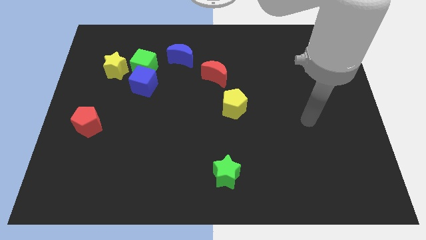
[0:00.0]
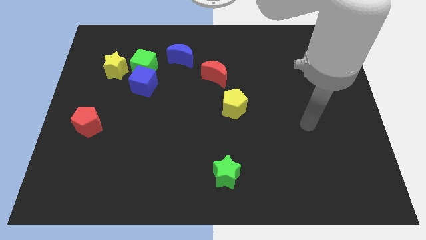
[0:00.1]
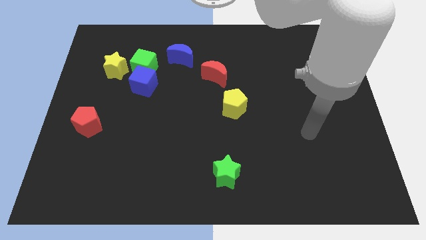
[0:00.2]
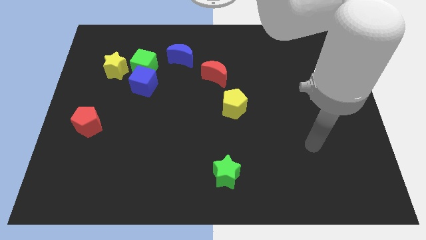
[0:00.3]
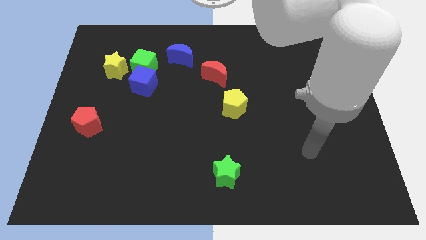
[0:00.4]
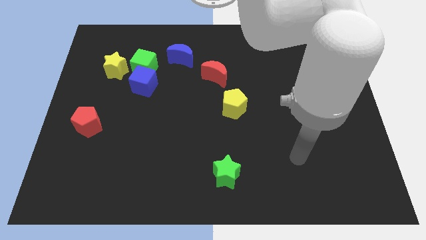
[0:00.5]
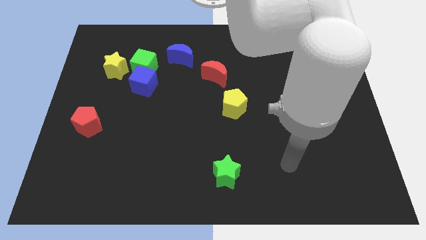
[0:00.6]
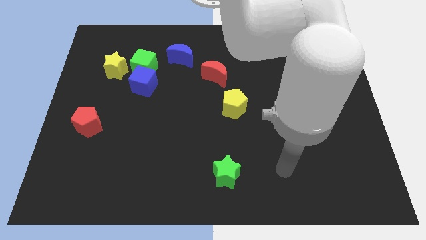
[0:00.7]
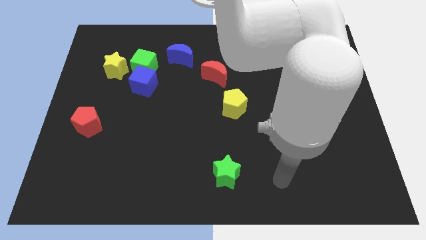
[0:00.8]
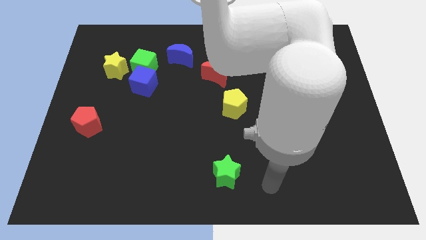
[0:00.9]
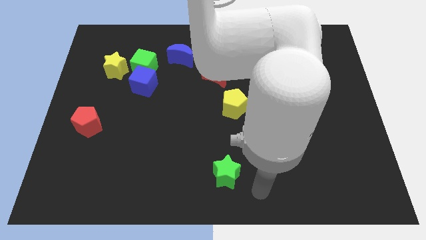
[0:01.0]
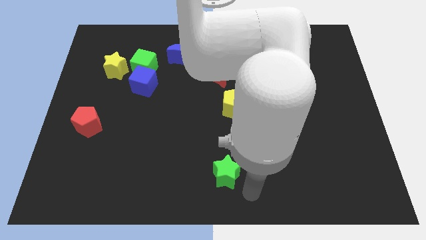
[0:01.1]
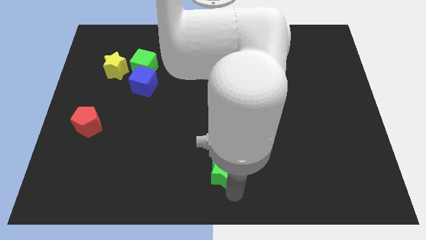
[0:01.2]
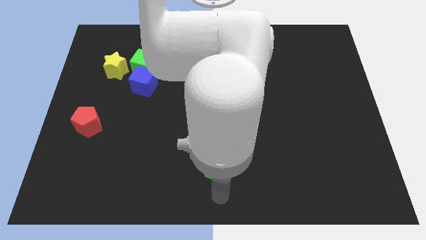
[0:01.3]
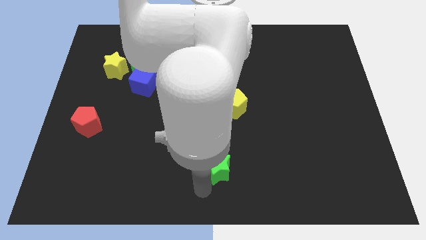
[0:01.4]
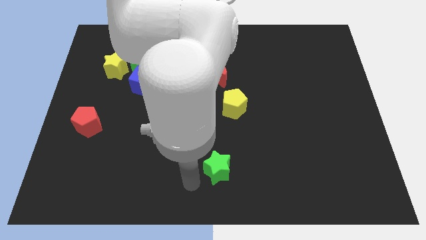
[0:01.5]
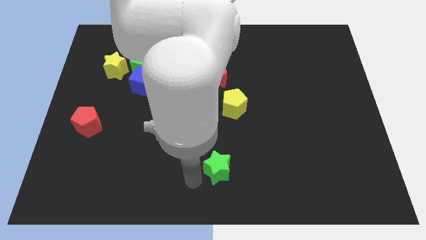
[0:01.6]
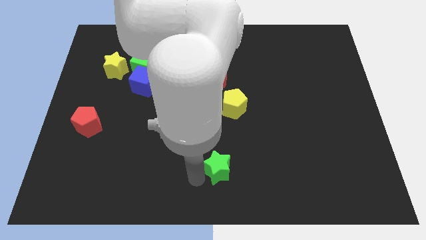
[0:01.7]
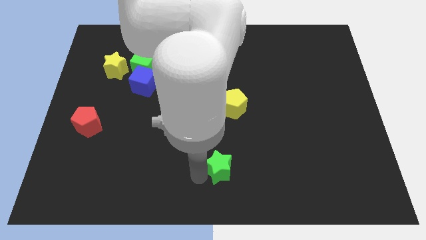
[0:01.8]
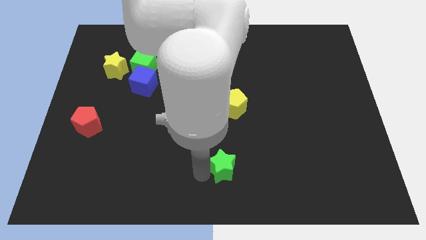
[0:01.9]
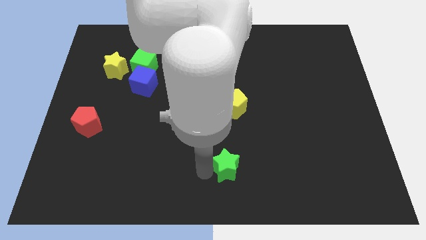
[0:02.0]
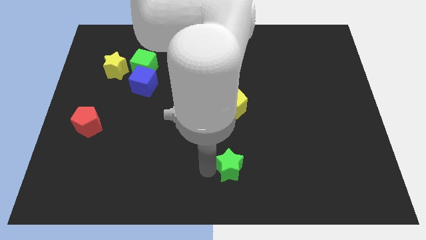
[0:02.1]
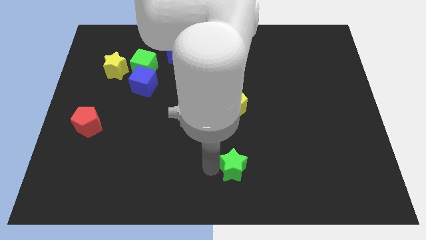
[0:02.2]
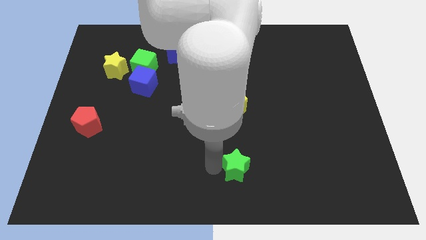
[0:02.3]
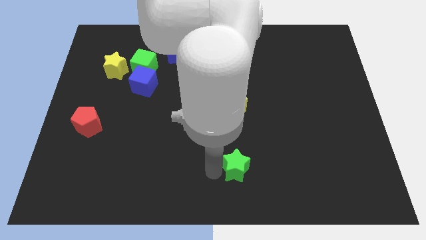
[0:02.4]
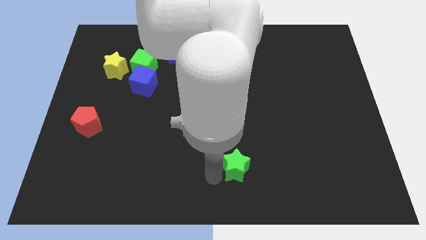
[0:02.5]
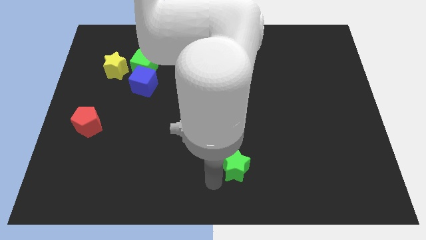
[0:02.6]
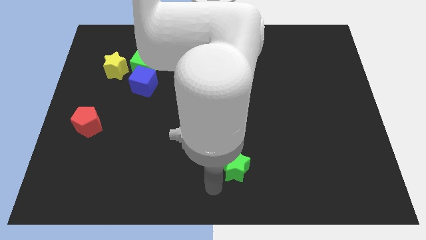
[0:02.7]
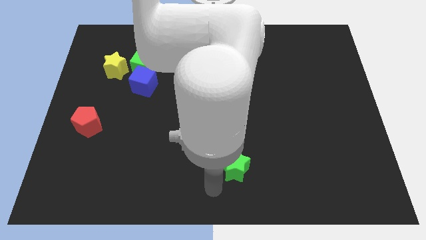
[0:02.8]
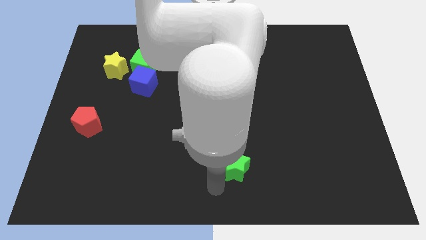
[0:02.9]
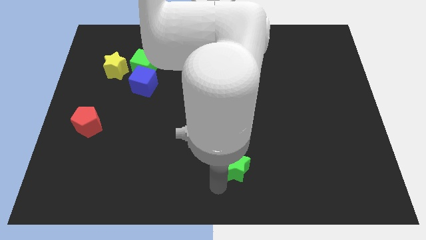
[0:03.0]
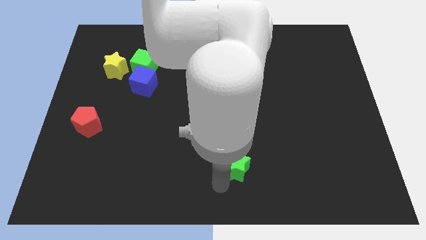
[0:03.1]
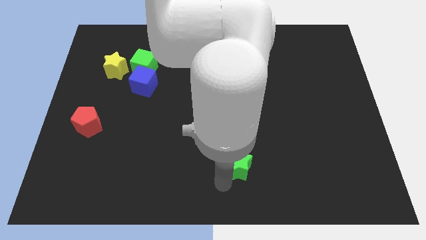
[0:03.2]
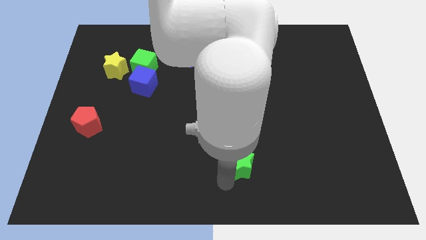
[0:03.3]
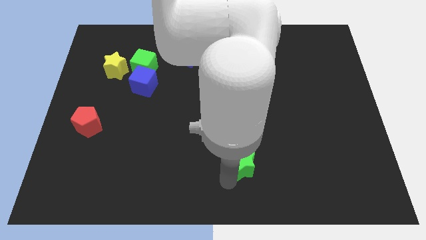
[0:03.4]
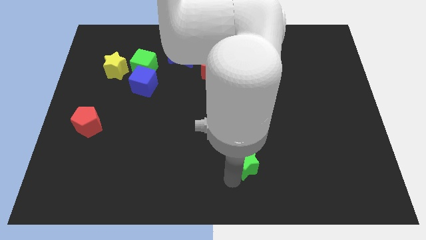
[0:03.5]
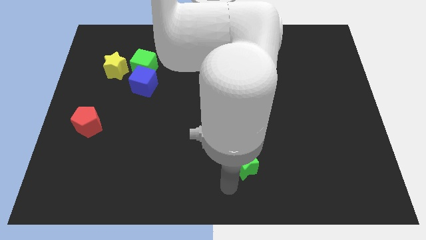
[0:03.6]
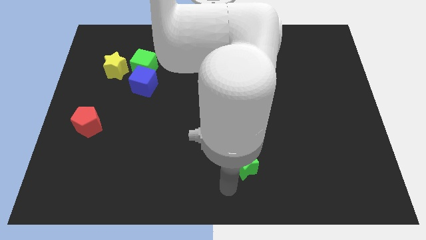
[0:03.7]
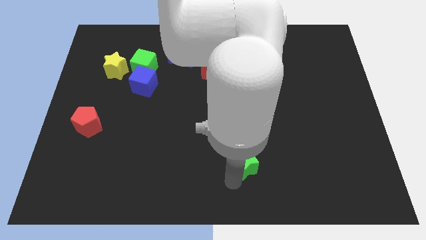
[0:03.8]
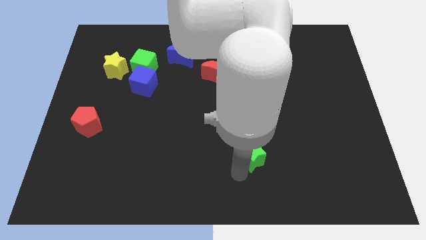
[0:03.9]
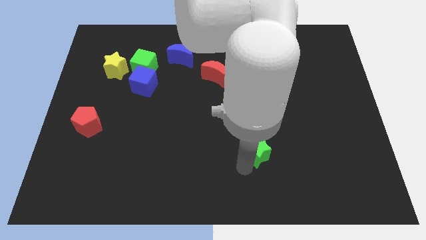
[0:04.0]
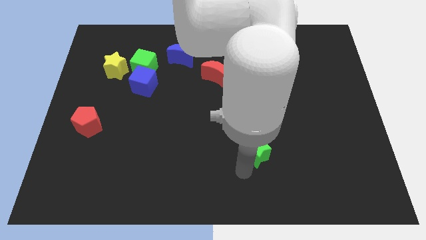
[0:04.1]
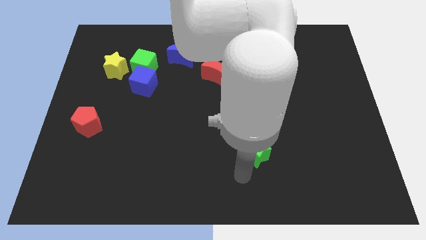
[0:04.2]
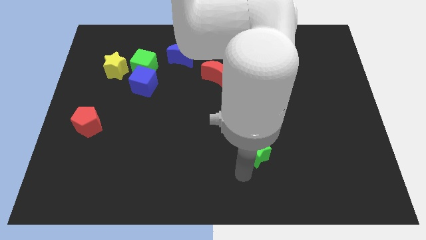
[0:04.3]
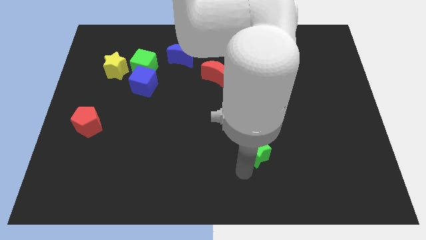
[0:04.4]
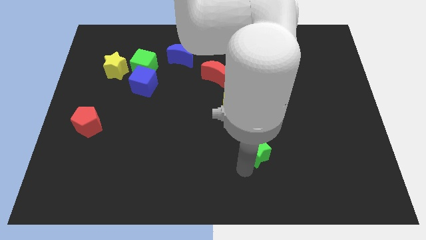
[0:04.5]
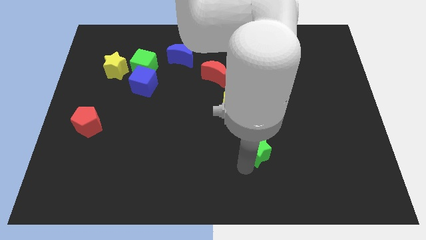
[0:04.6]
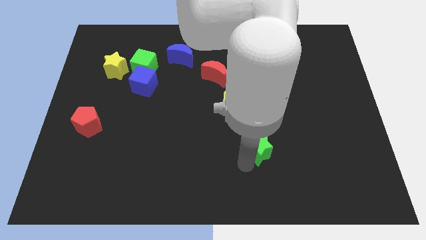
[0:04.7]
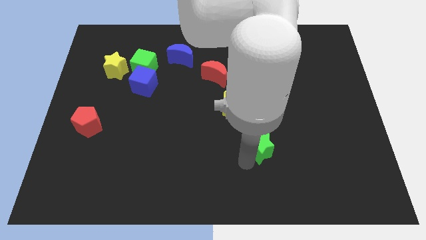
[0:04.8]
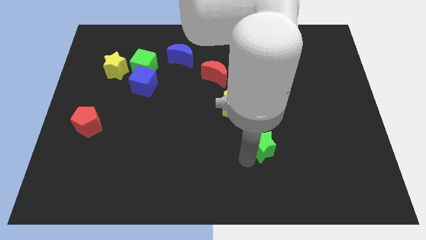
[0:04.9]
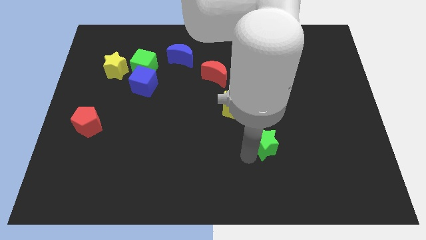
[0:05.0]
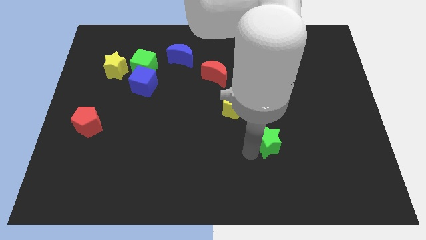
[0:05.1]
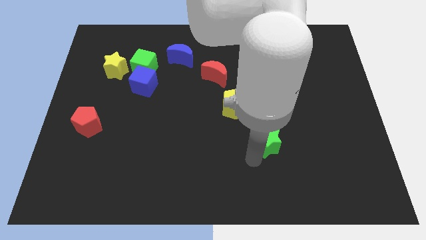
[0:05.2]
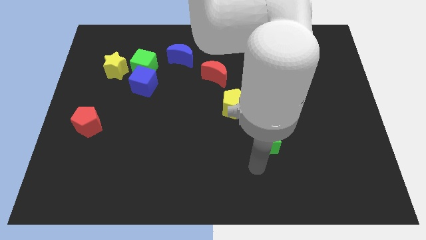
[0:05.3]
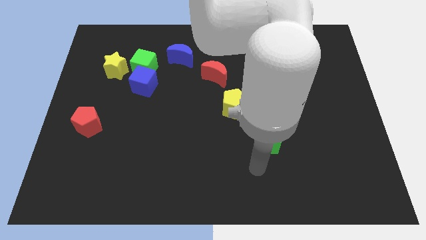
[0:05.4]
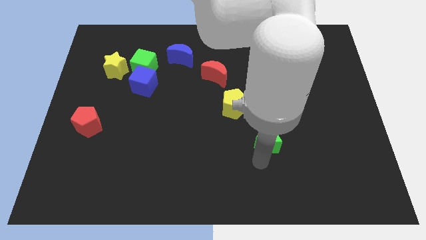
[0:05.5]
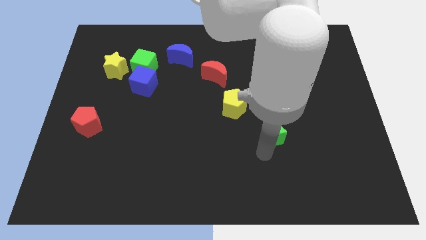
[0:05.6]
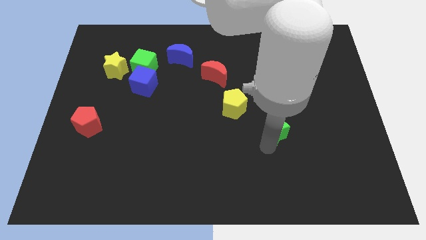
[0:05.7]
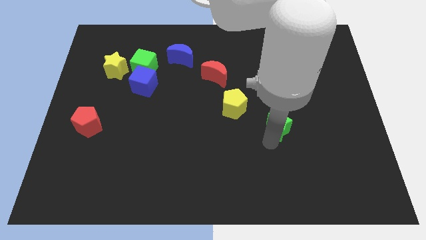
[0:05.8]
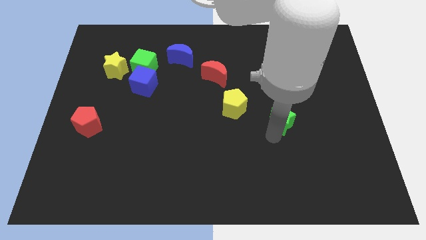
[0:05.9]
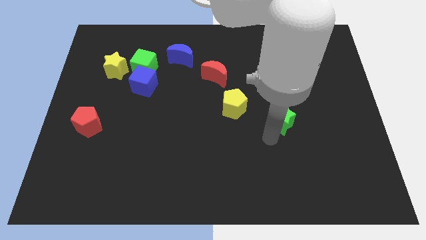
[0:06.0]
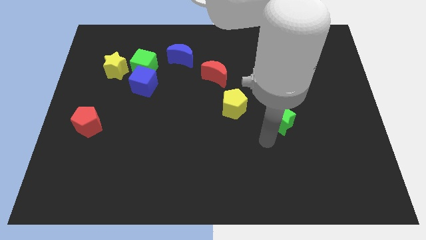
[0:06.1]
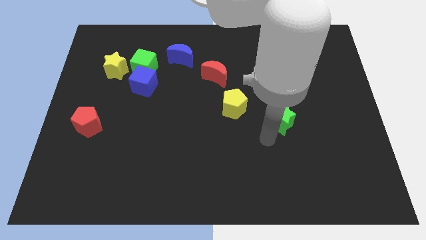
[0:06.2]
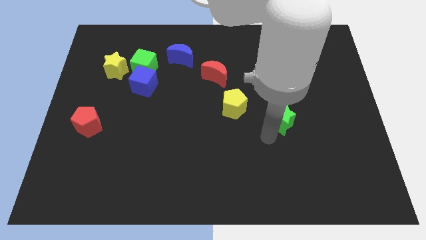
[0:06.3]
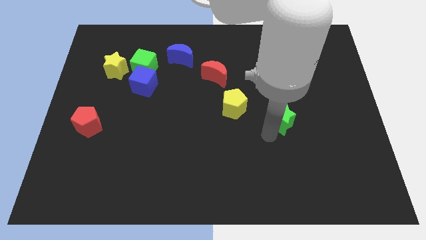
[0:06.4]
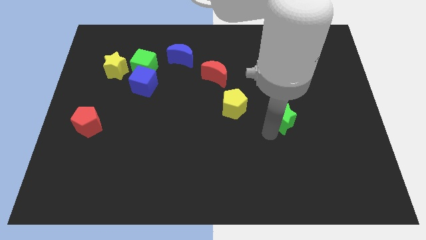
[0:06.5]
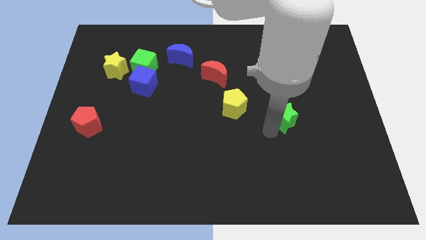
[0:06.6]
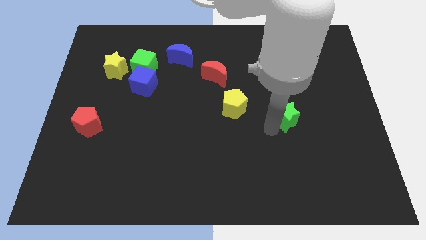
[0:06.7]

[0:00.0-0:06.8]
move the green star upwards and then to the right

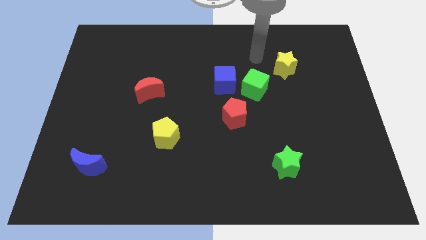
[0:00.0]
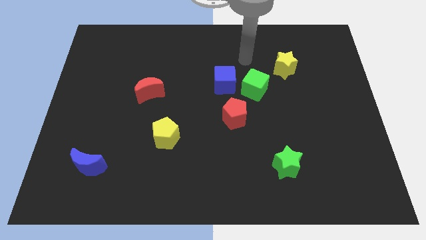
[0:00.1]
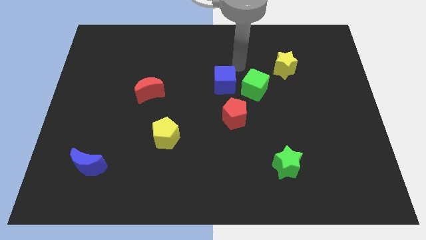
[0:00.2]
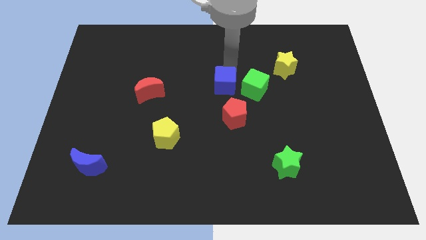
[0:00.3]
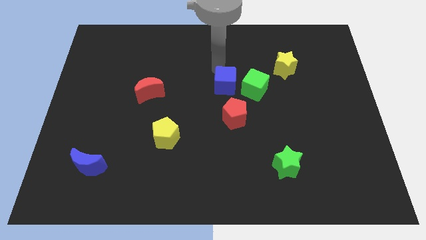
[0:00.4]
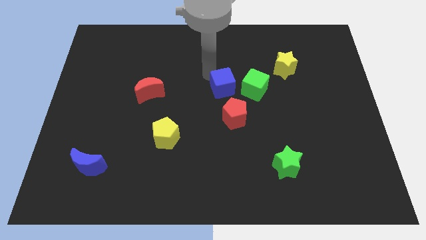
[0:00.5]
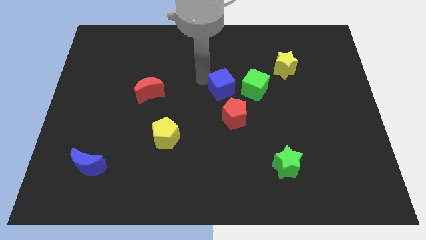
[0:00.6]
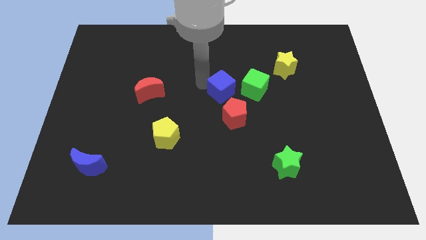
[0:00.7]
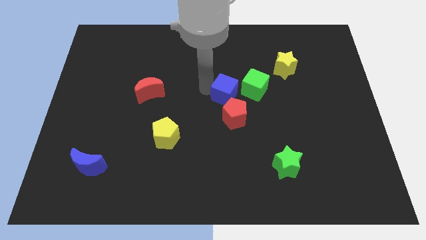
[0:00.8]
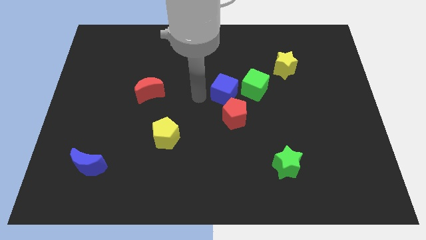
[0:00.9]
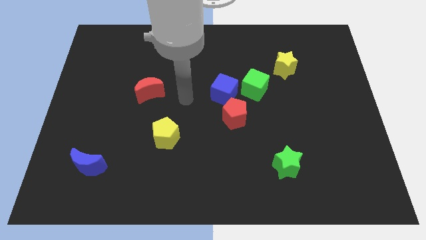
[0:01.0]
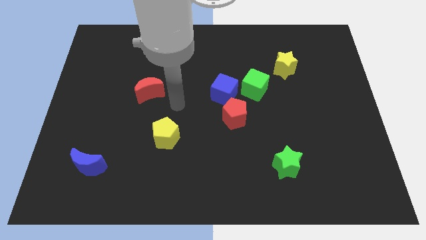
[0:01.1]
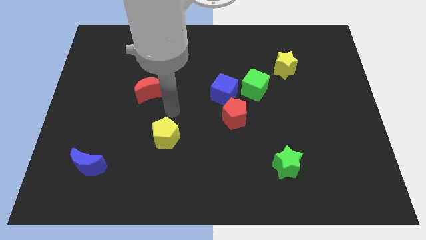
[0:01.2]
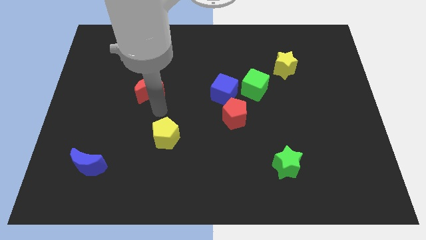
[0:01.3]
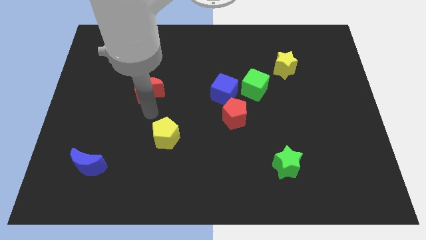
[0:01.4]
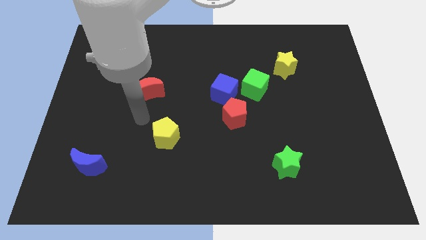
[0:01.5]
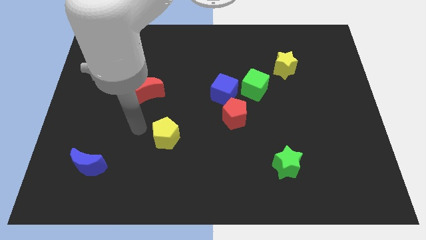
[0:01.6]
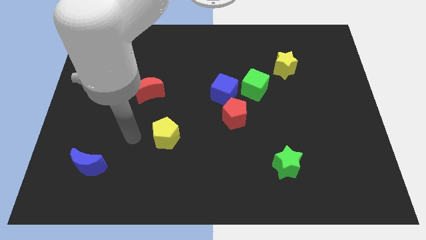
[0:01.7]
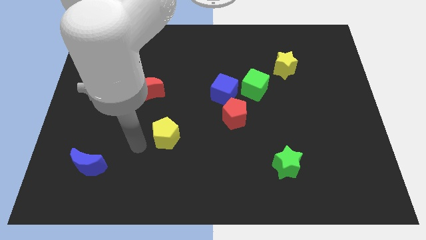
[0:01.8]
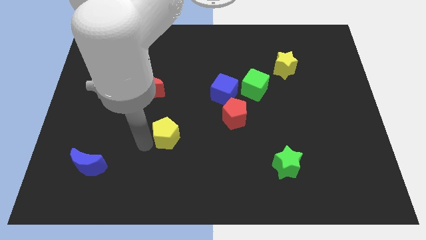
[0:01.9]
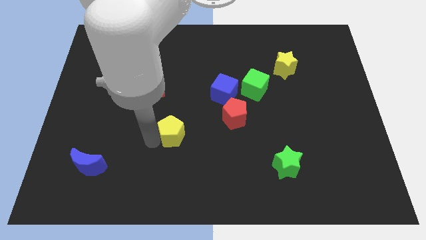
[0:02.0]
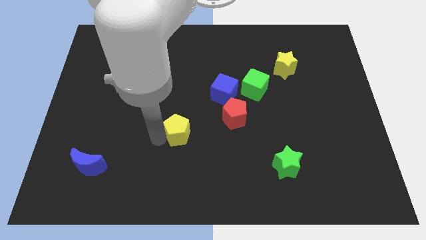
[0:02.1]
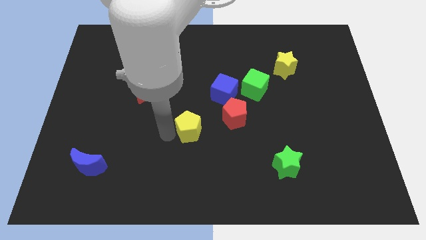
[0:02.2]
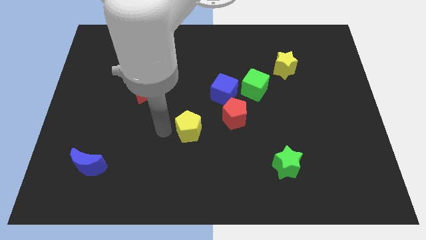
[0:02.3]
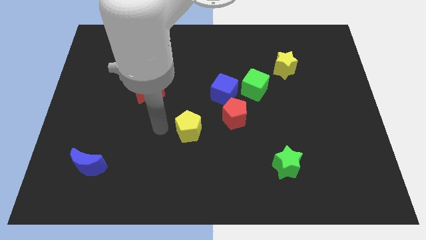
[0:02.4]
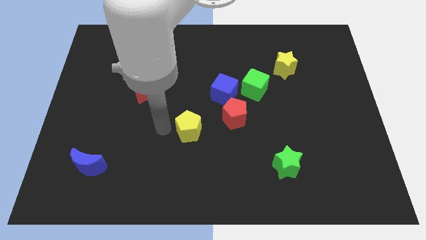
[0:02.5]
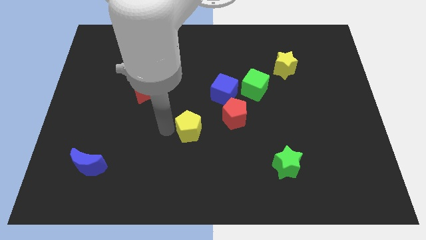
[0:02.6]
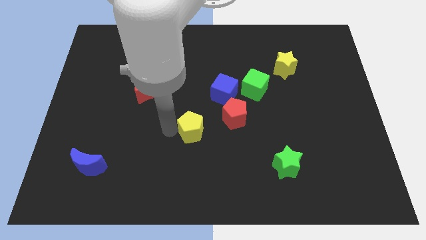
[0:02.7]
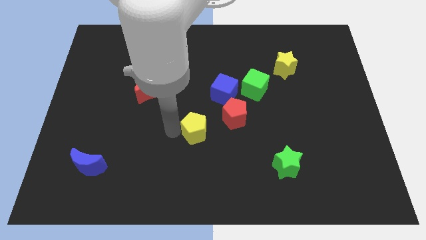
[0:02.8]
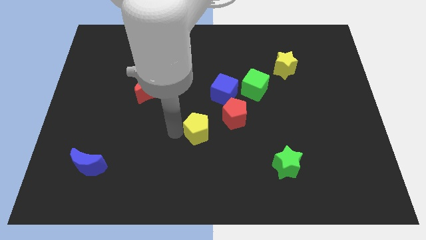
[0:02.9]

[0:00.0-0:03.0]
slide the yellow pentagon somewhat to the right
